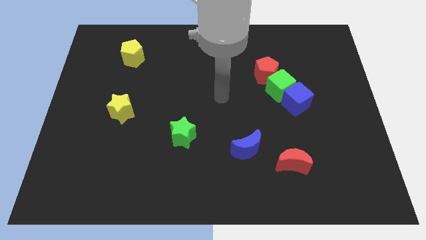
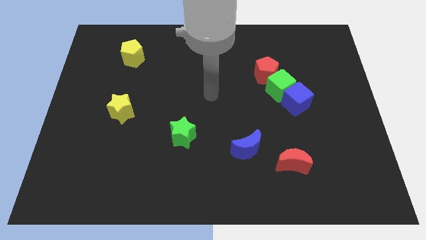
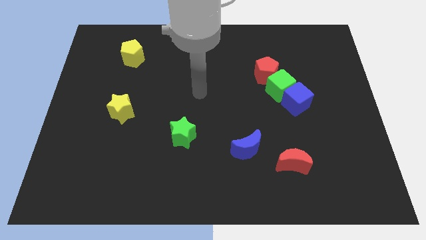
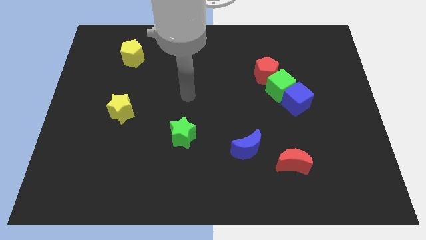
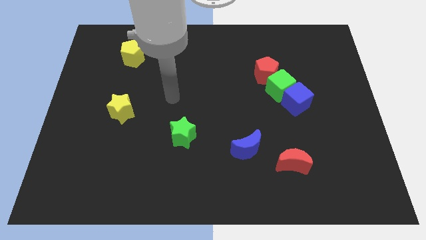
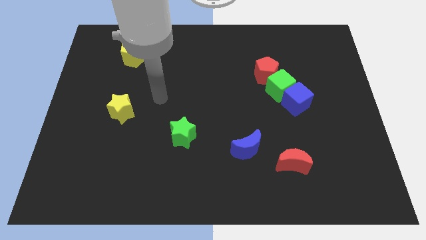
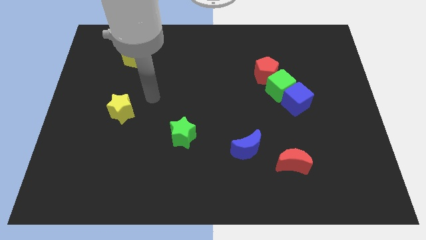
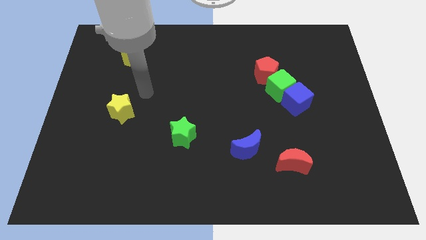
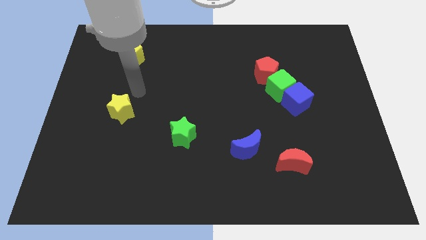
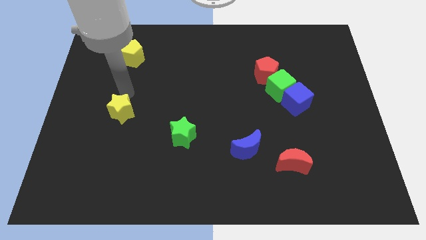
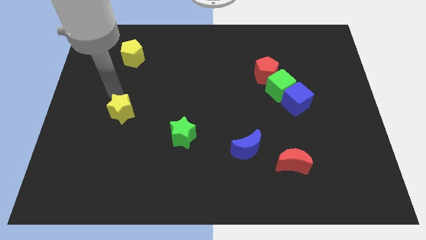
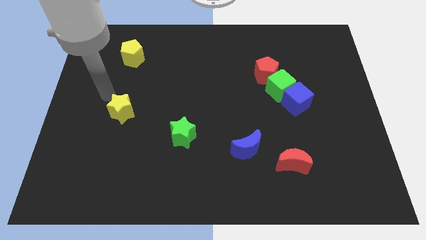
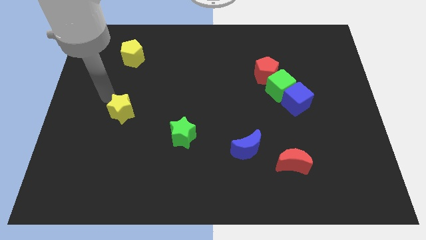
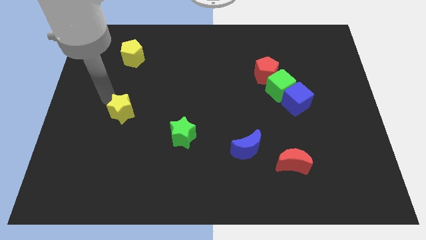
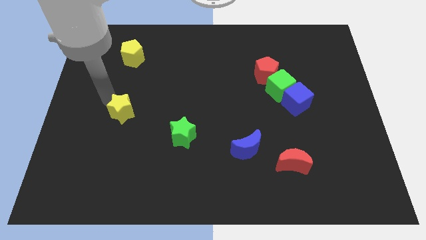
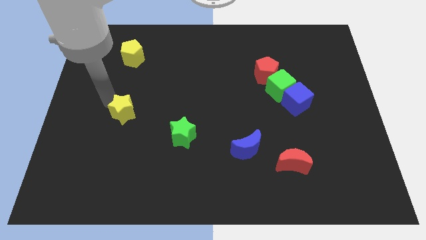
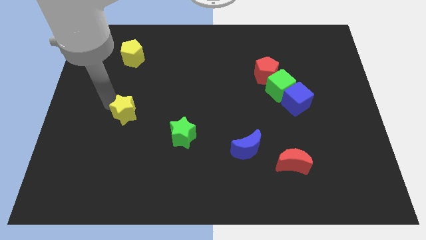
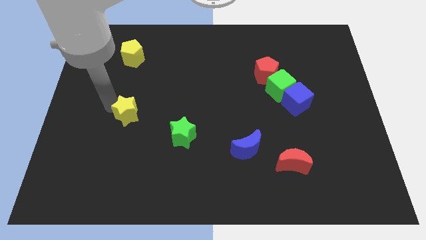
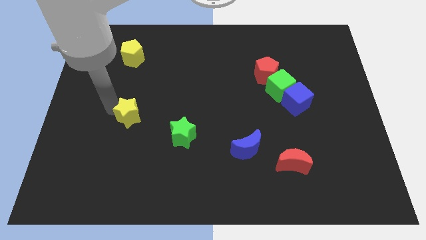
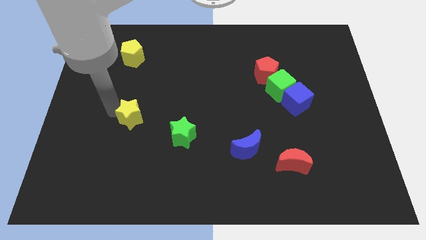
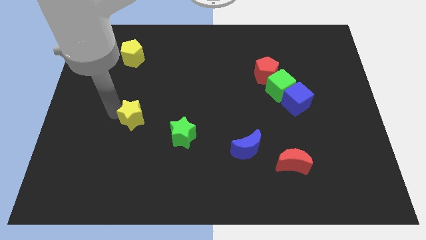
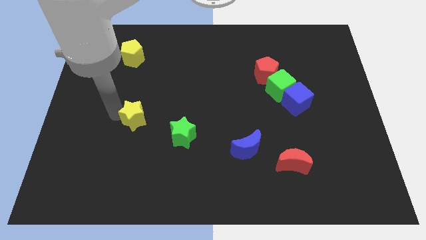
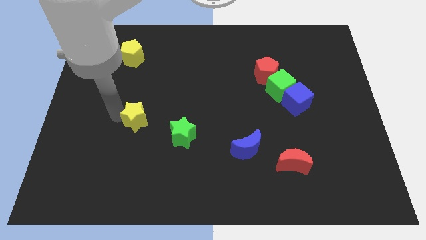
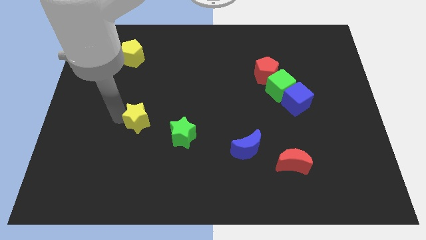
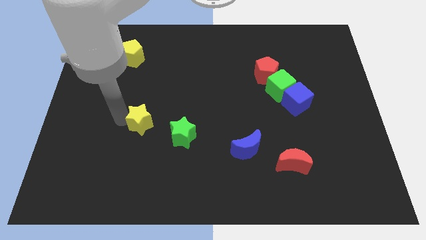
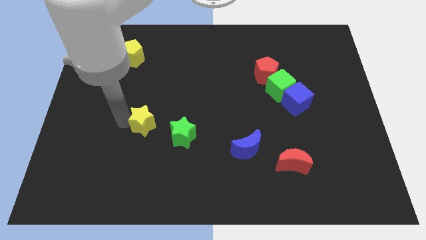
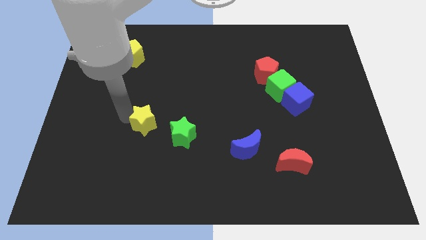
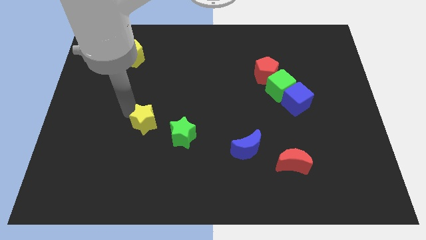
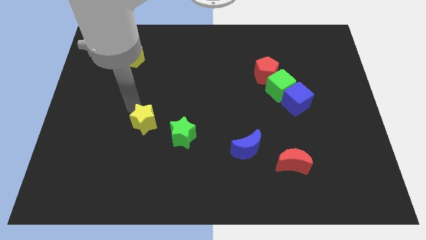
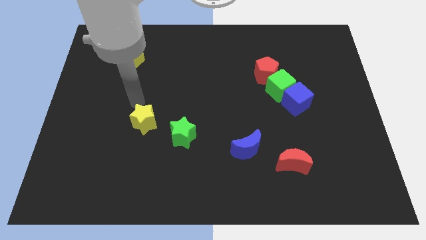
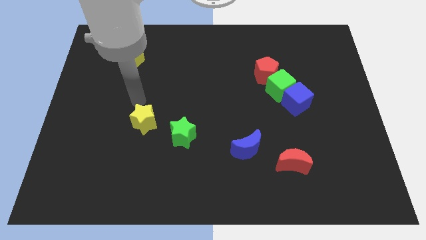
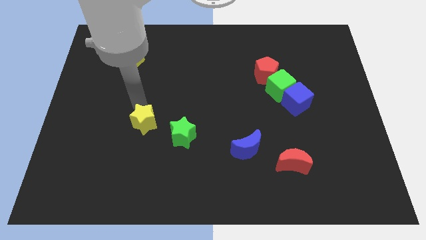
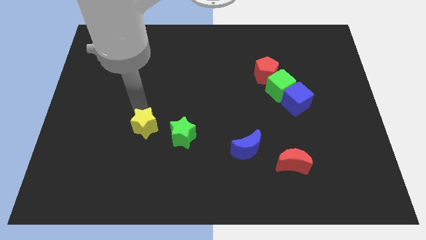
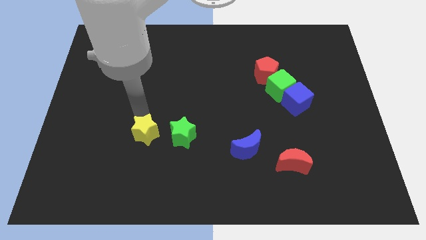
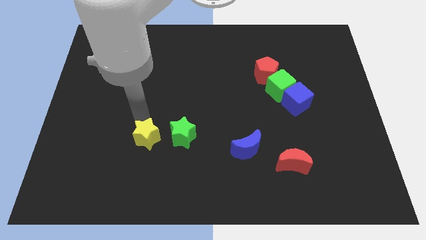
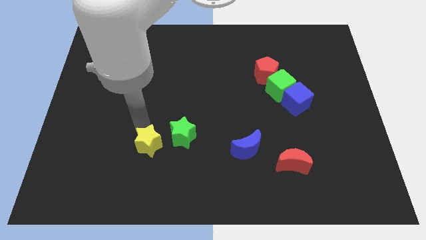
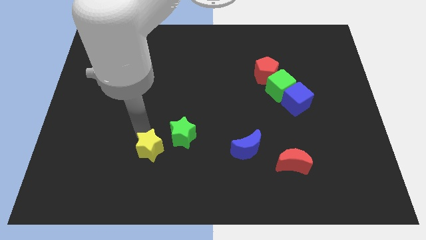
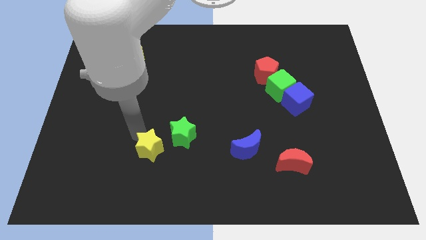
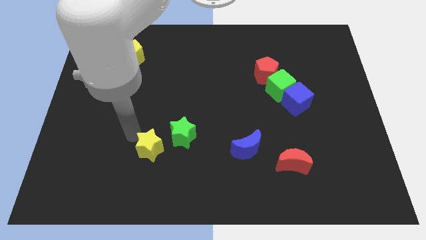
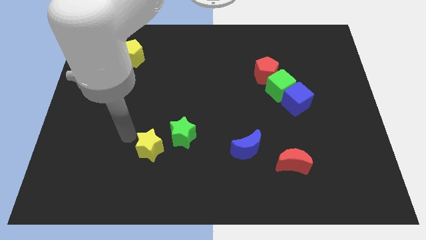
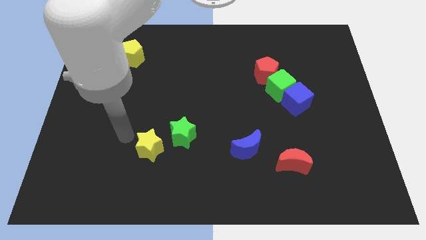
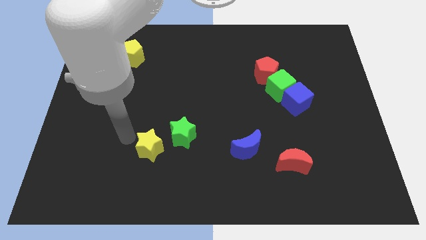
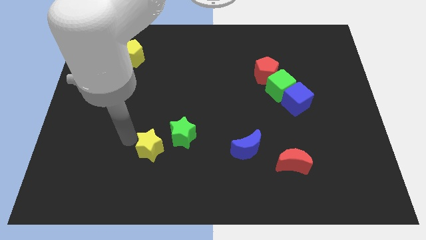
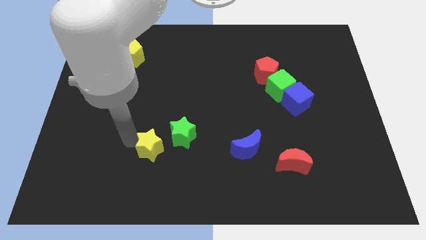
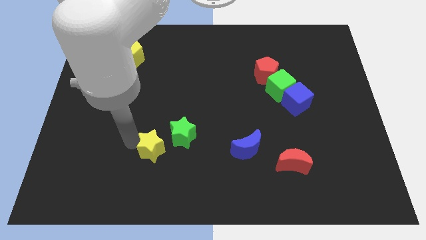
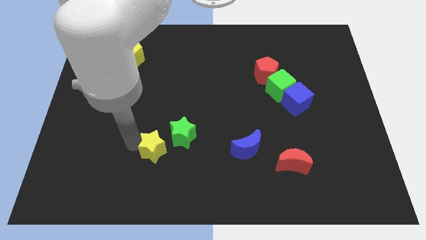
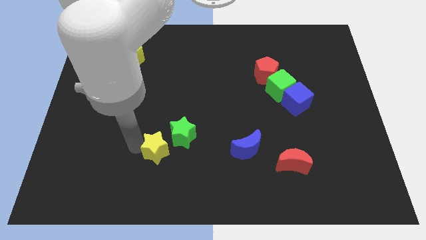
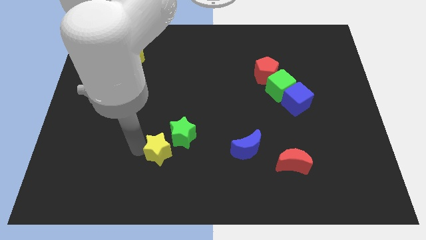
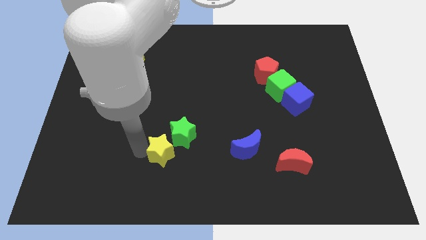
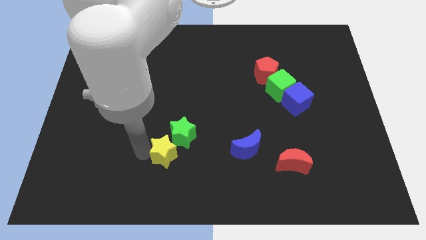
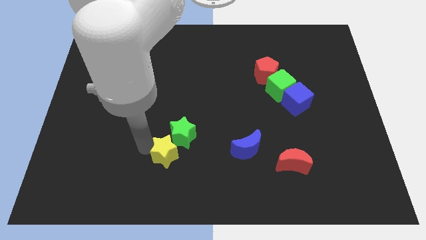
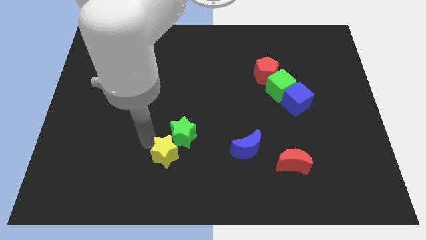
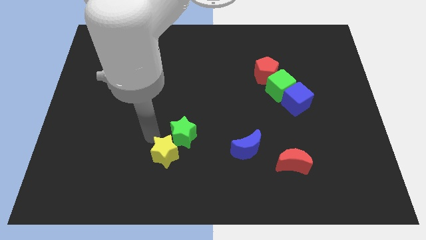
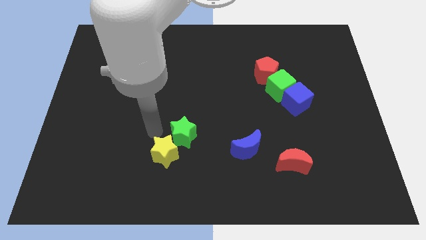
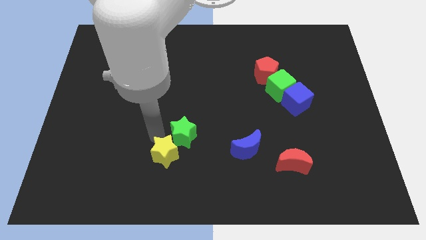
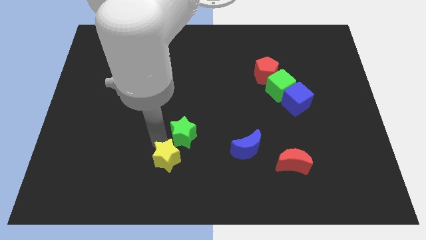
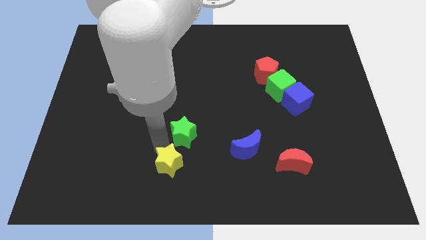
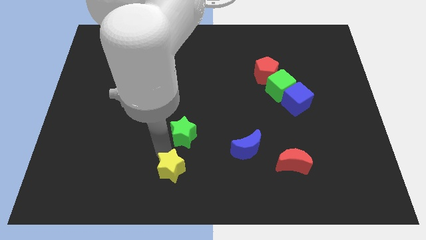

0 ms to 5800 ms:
put the yellow star to the bottom side
